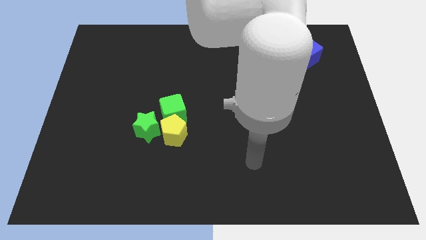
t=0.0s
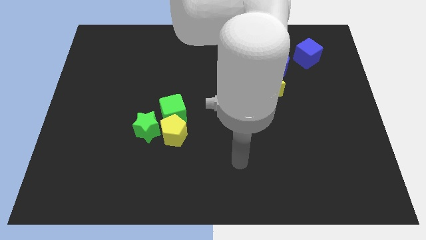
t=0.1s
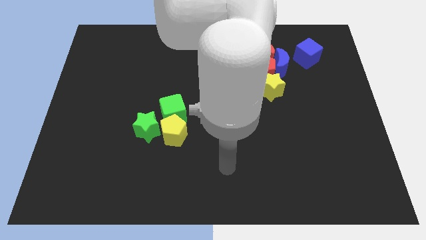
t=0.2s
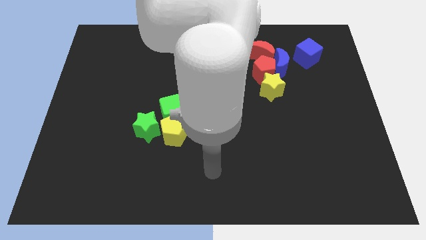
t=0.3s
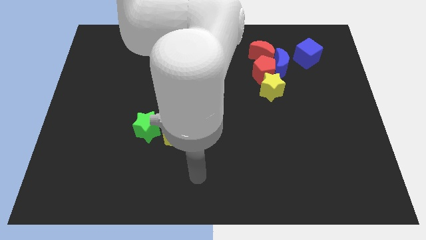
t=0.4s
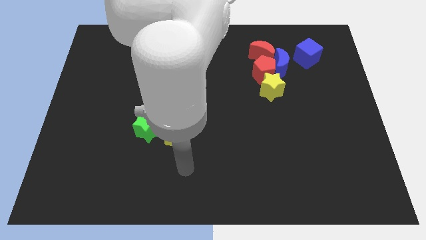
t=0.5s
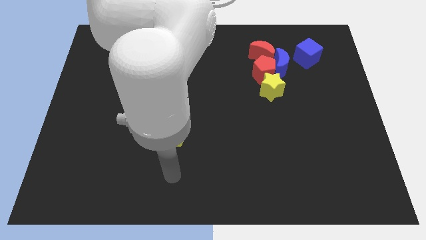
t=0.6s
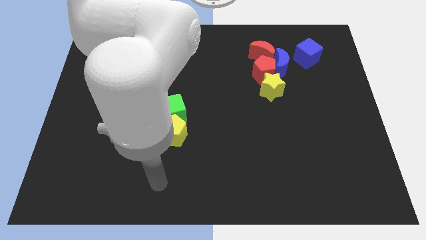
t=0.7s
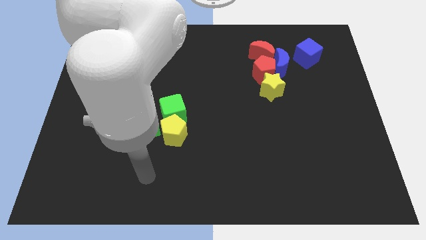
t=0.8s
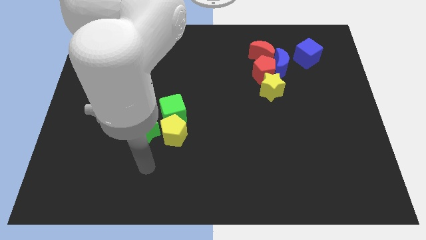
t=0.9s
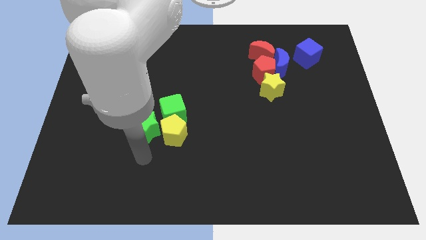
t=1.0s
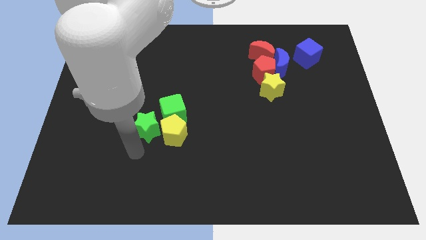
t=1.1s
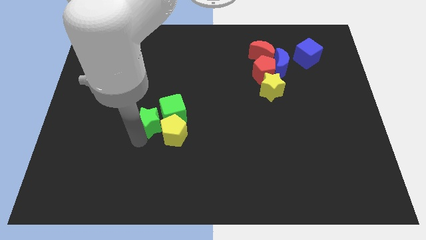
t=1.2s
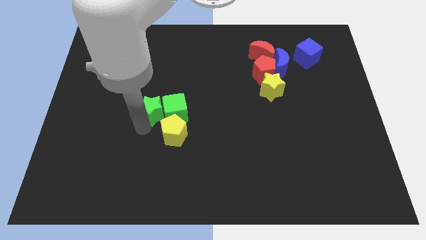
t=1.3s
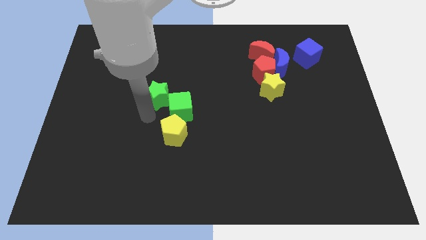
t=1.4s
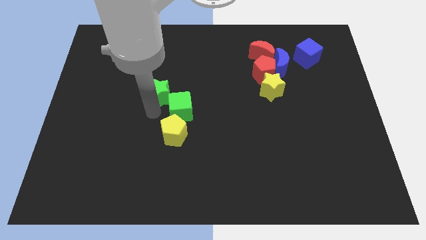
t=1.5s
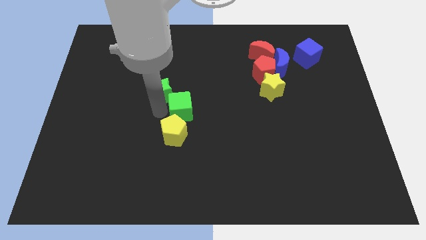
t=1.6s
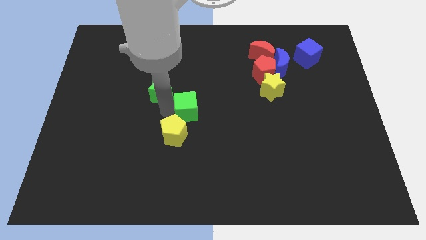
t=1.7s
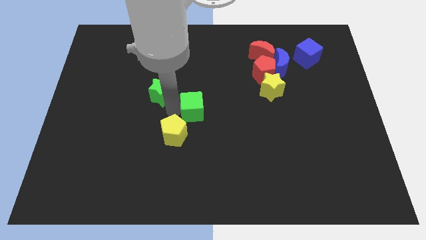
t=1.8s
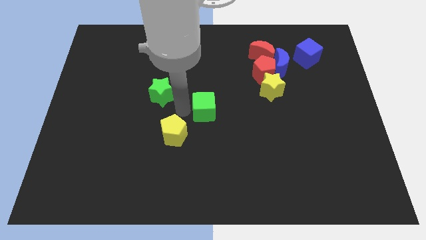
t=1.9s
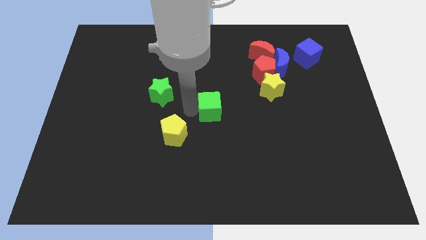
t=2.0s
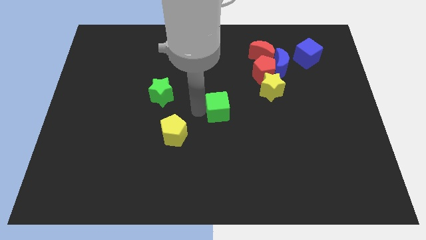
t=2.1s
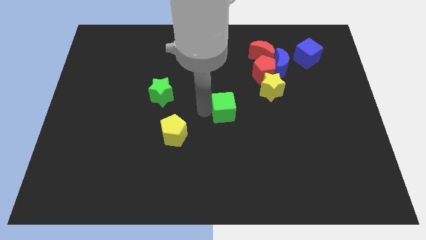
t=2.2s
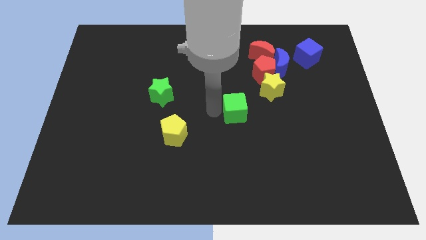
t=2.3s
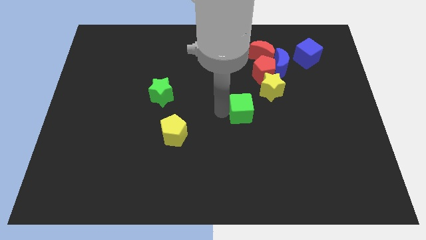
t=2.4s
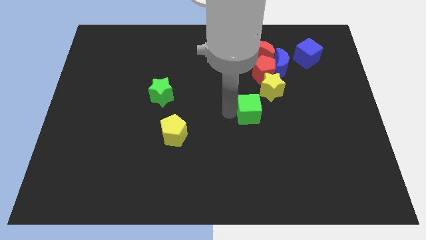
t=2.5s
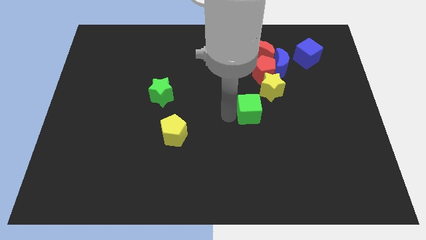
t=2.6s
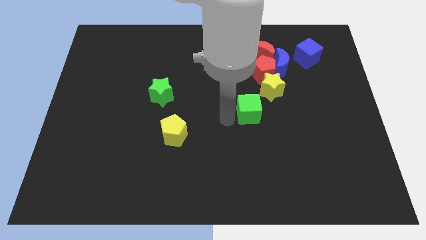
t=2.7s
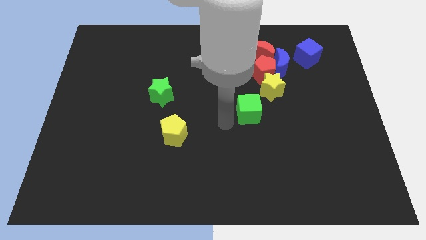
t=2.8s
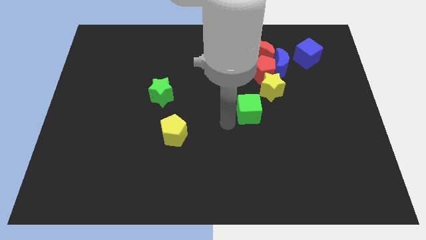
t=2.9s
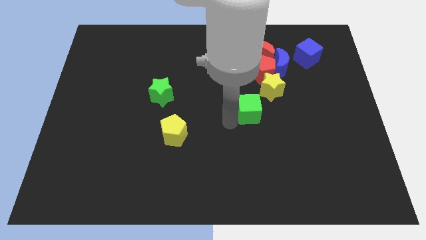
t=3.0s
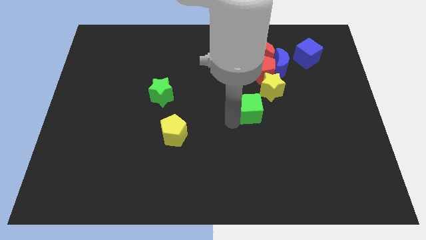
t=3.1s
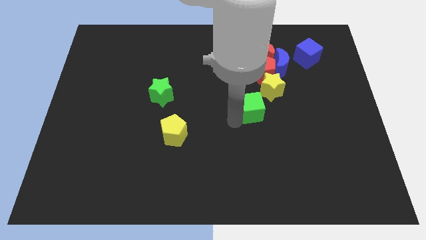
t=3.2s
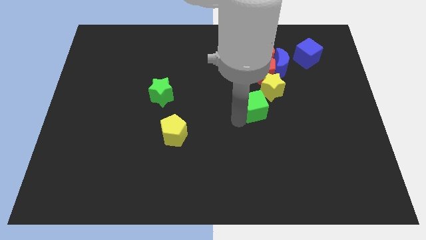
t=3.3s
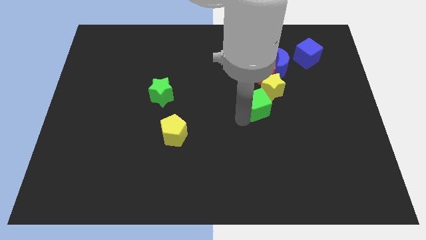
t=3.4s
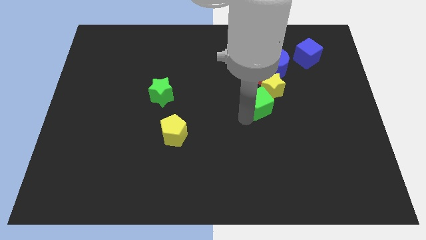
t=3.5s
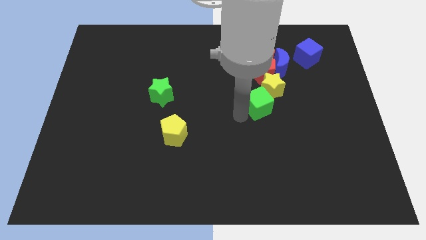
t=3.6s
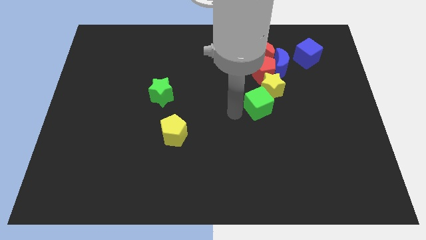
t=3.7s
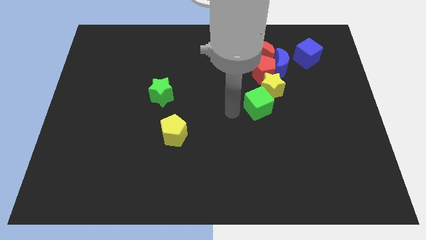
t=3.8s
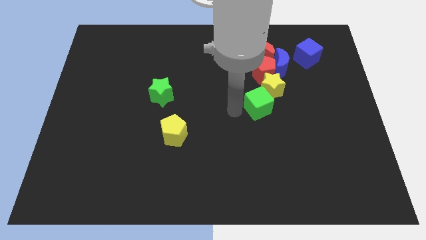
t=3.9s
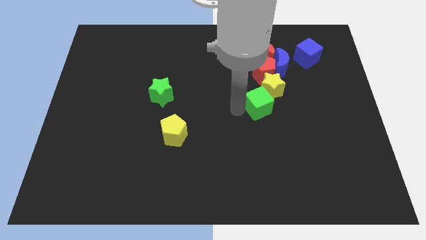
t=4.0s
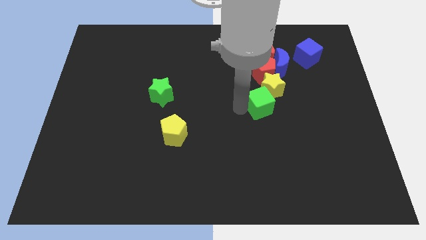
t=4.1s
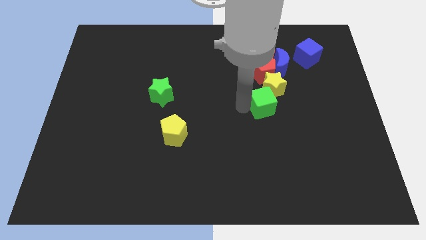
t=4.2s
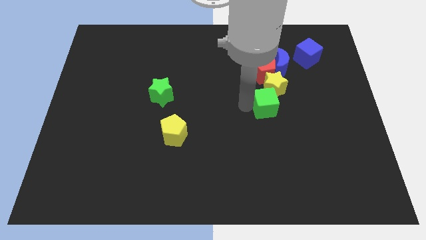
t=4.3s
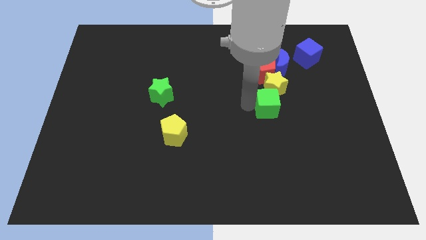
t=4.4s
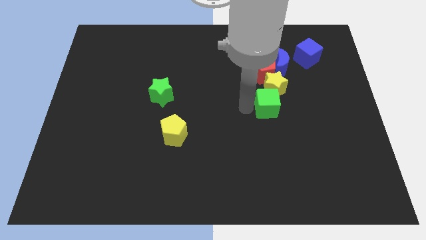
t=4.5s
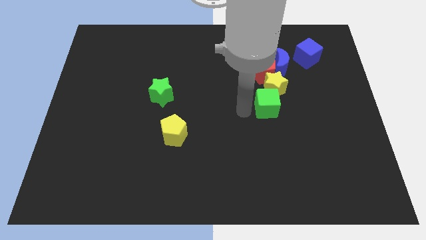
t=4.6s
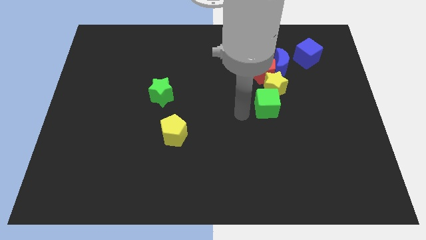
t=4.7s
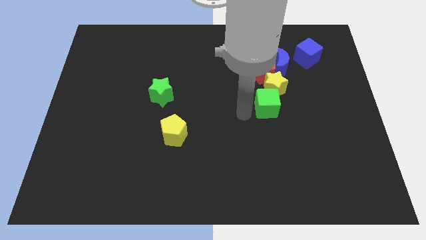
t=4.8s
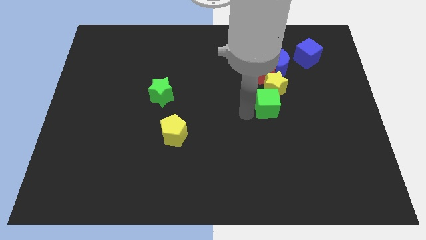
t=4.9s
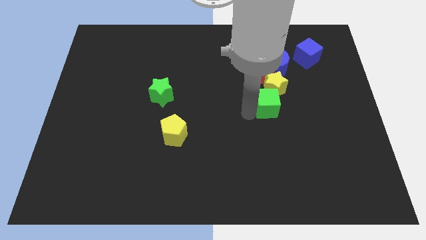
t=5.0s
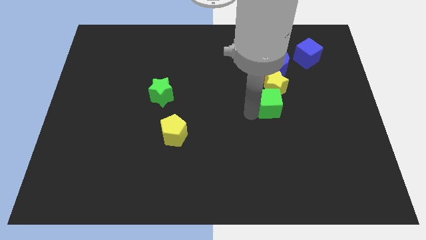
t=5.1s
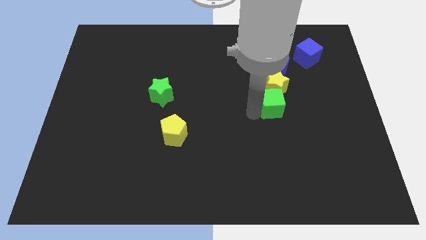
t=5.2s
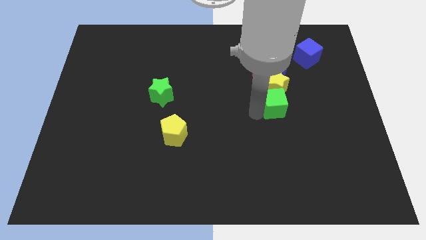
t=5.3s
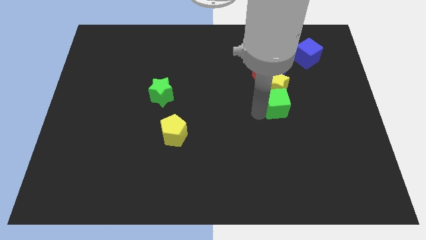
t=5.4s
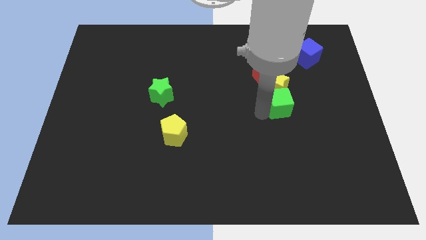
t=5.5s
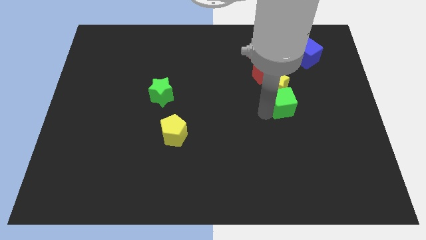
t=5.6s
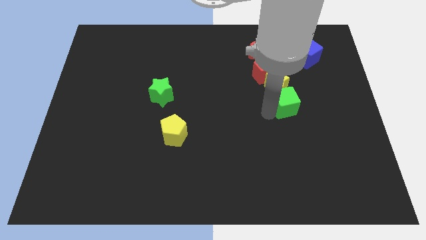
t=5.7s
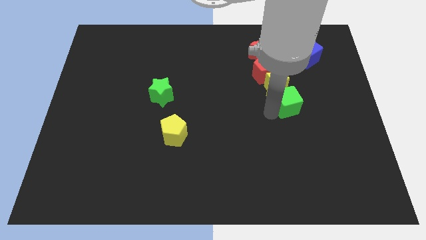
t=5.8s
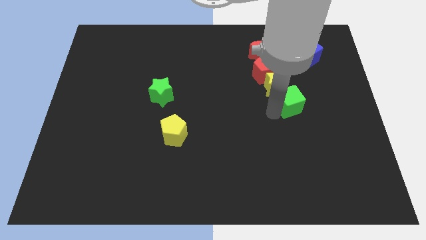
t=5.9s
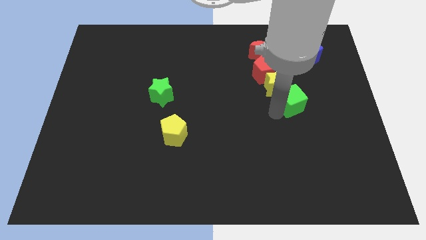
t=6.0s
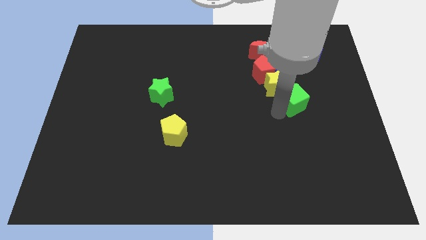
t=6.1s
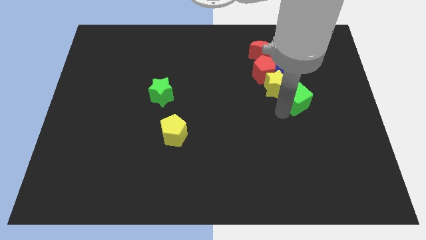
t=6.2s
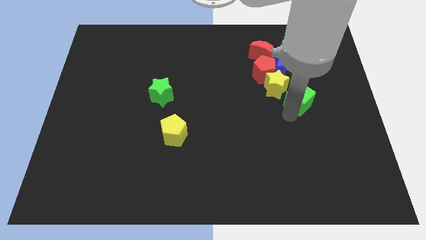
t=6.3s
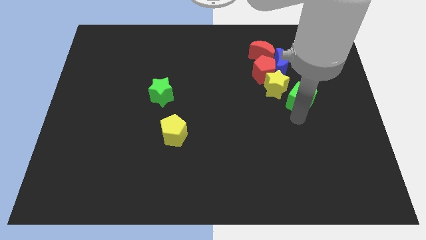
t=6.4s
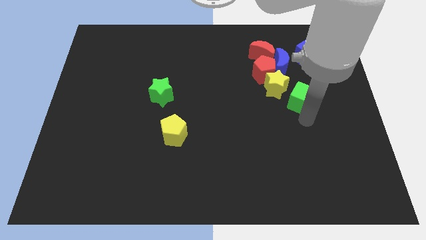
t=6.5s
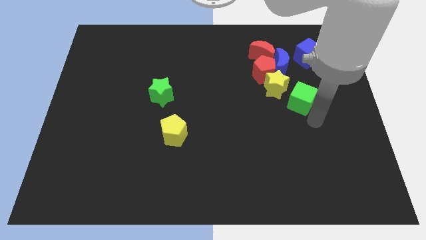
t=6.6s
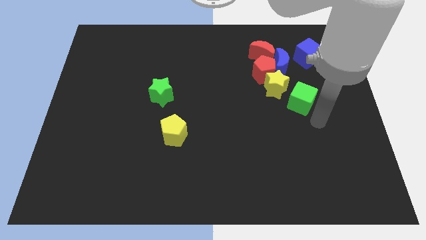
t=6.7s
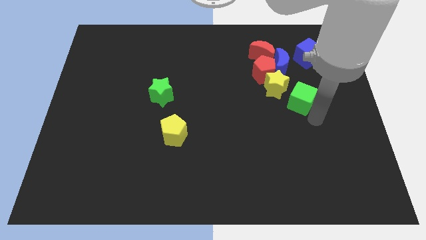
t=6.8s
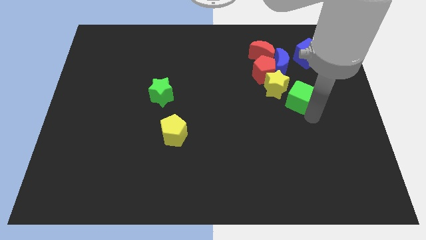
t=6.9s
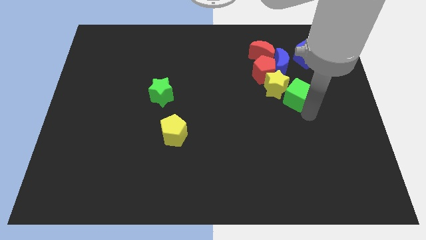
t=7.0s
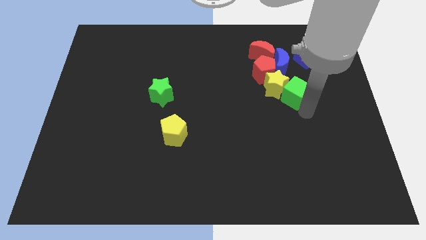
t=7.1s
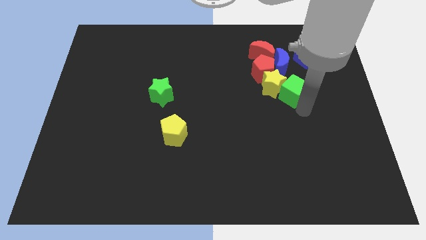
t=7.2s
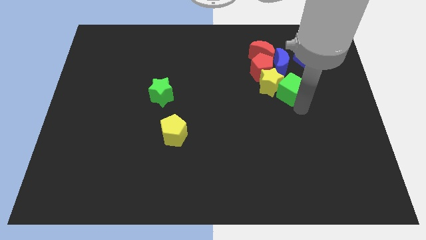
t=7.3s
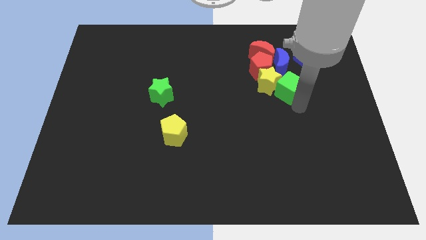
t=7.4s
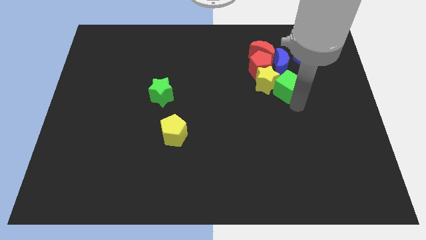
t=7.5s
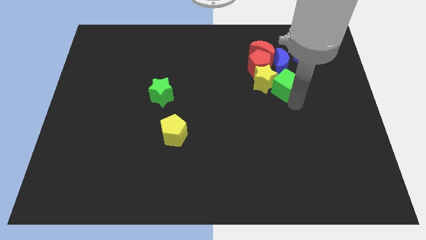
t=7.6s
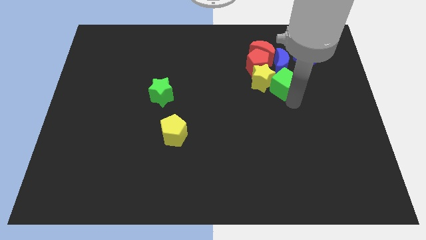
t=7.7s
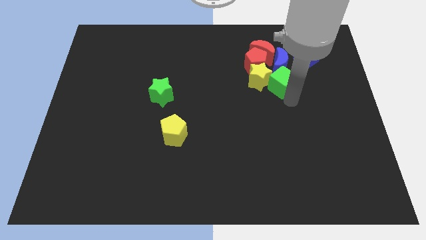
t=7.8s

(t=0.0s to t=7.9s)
put the green cube to the bottom left side of the blue cube
